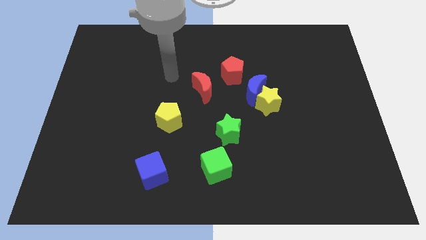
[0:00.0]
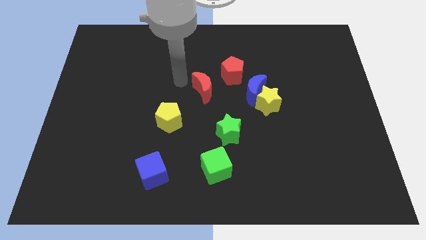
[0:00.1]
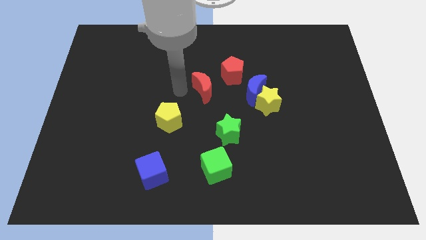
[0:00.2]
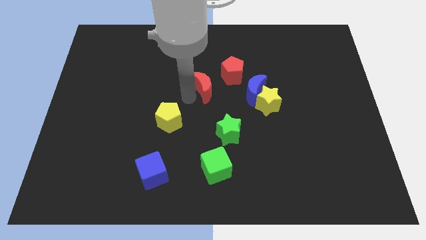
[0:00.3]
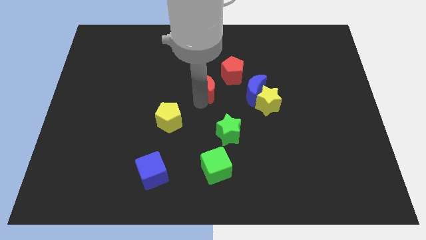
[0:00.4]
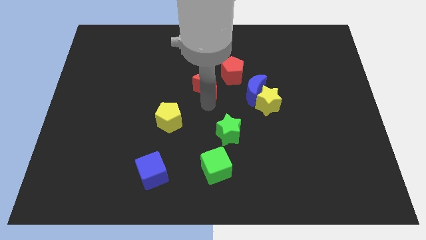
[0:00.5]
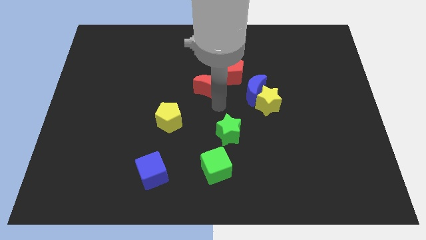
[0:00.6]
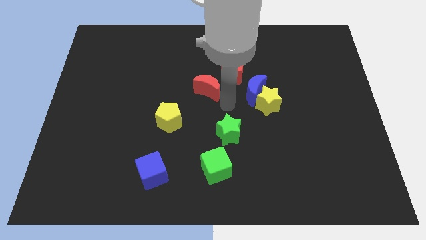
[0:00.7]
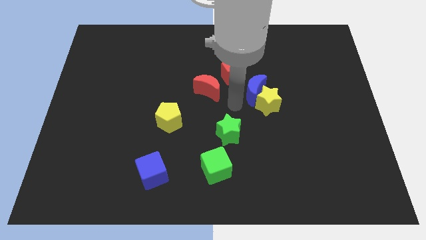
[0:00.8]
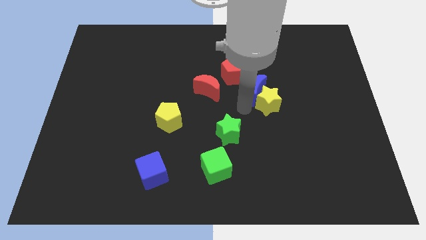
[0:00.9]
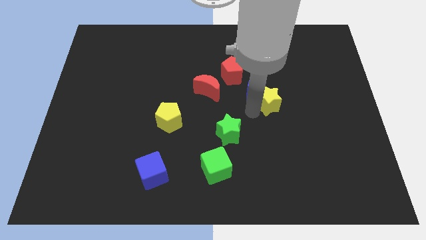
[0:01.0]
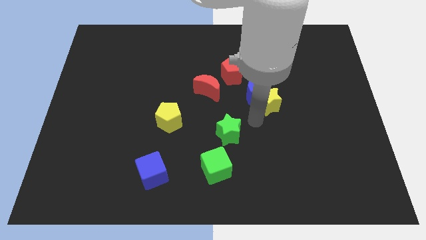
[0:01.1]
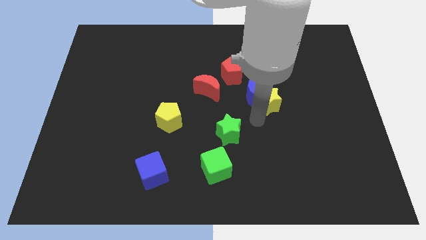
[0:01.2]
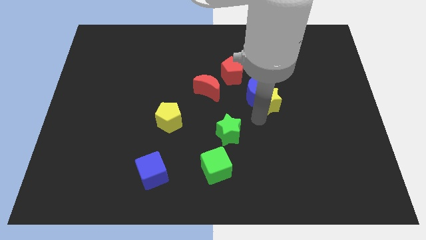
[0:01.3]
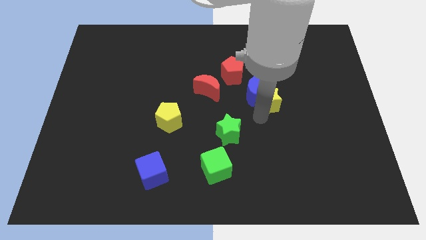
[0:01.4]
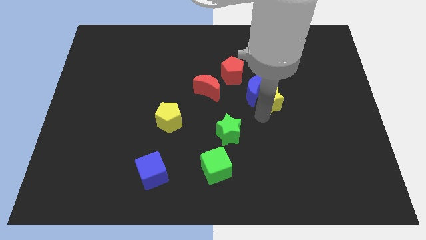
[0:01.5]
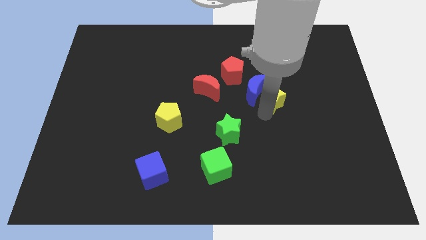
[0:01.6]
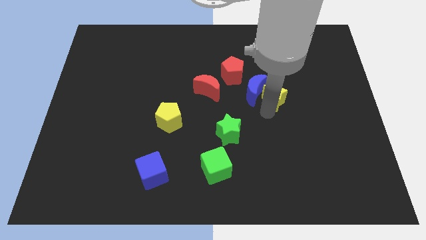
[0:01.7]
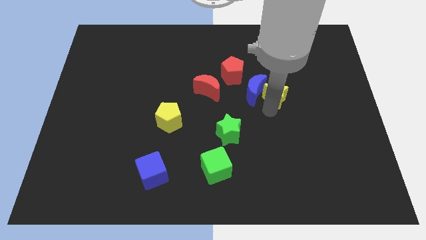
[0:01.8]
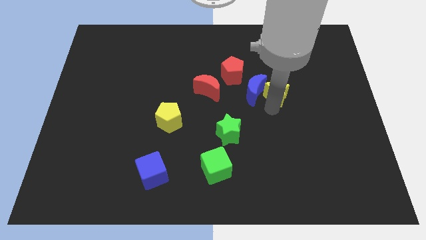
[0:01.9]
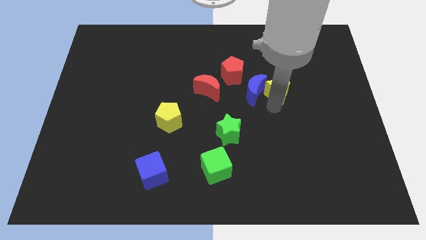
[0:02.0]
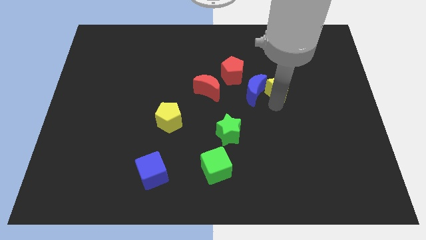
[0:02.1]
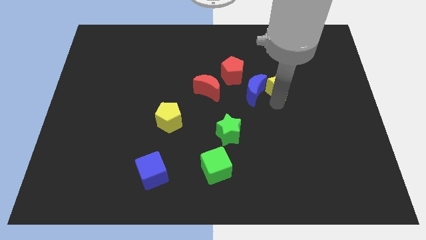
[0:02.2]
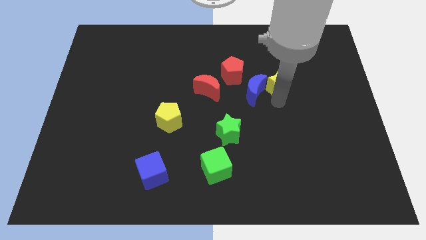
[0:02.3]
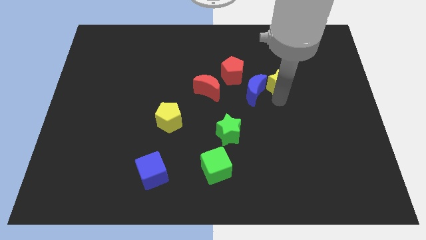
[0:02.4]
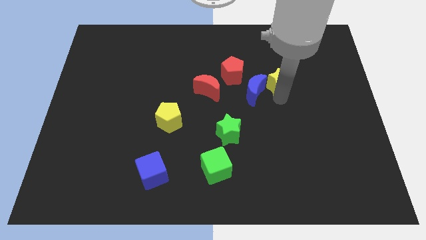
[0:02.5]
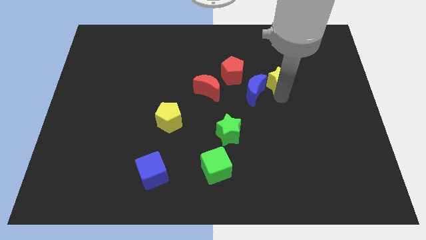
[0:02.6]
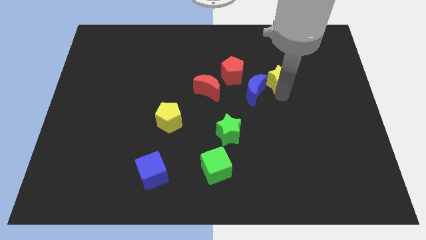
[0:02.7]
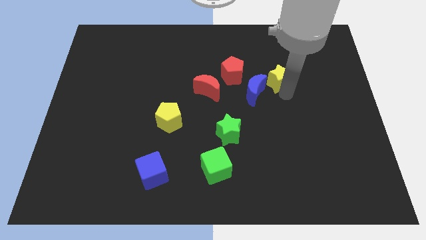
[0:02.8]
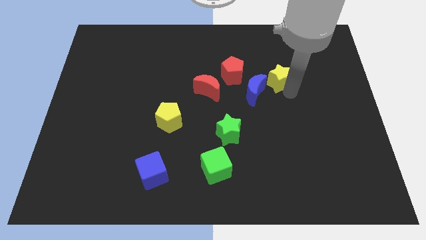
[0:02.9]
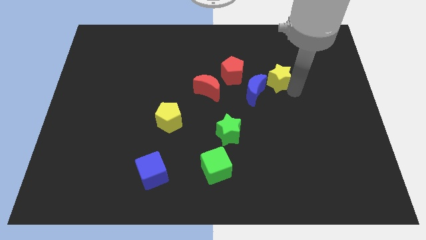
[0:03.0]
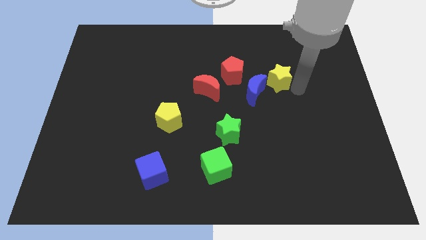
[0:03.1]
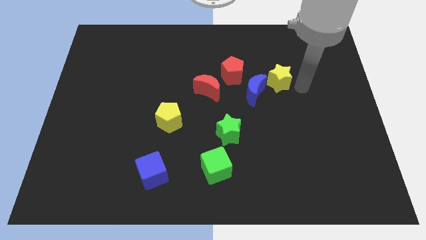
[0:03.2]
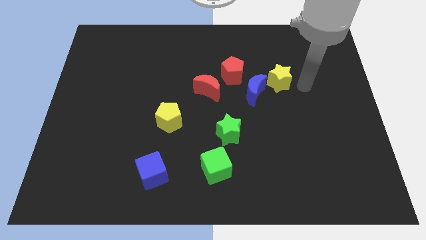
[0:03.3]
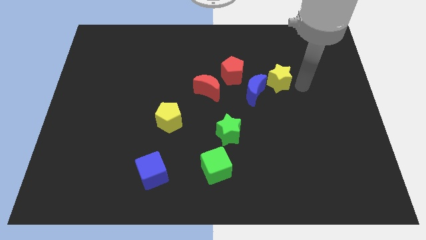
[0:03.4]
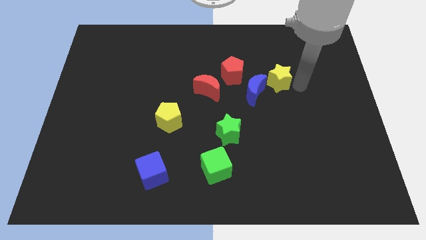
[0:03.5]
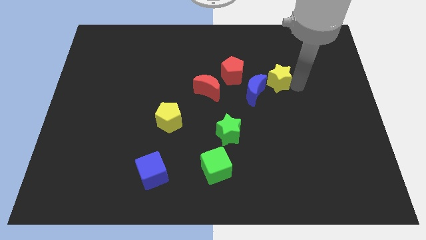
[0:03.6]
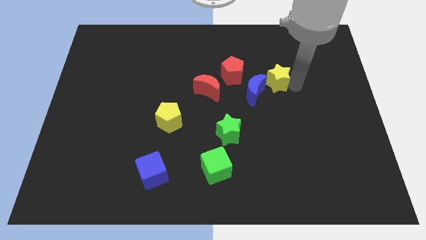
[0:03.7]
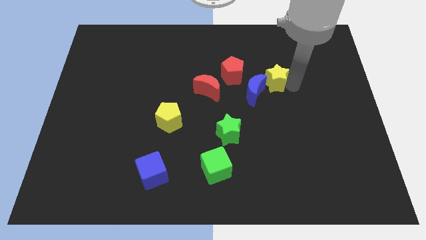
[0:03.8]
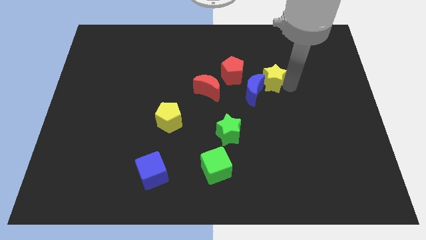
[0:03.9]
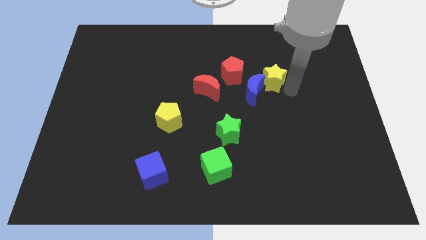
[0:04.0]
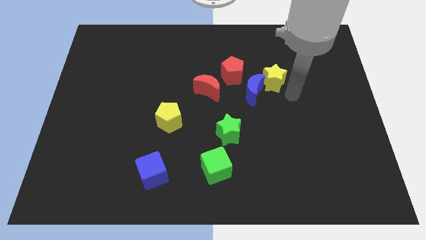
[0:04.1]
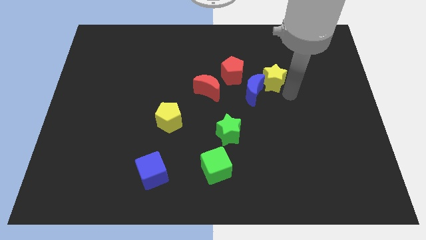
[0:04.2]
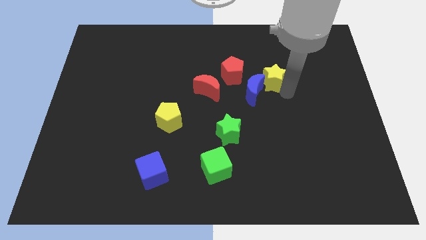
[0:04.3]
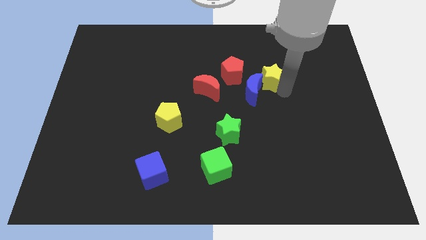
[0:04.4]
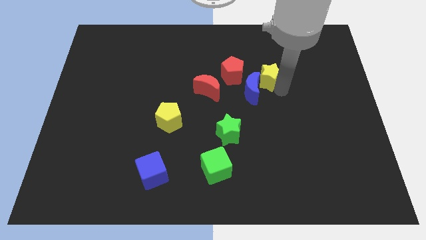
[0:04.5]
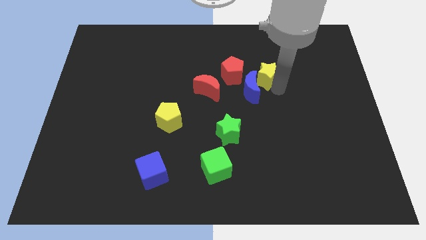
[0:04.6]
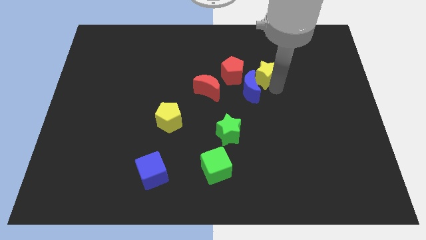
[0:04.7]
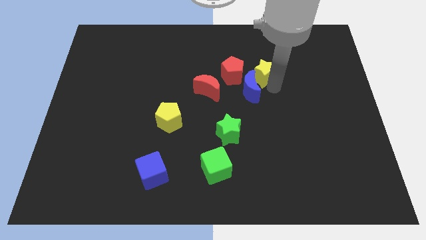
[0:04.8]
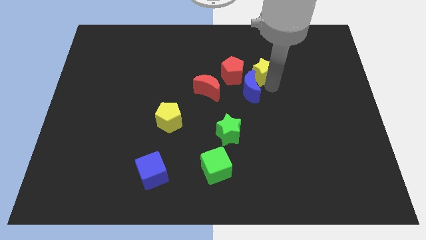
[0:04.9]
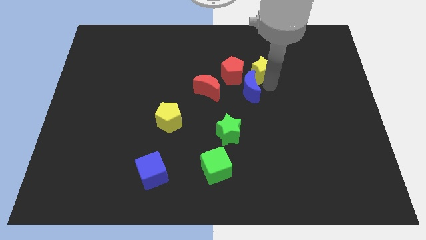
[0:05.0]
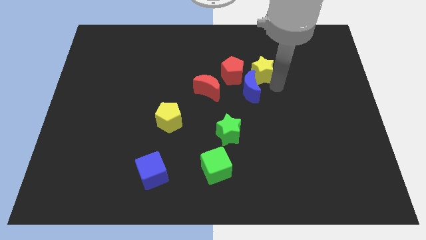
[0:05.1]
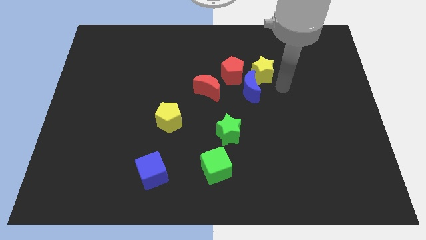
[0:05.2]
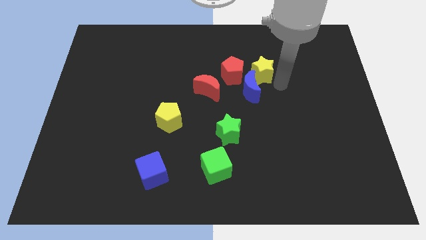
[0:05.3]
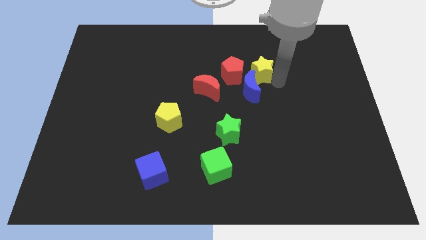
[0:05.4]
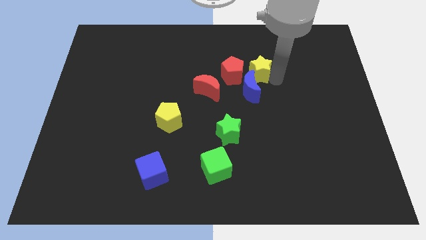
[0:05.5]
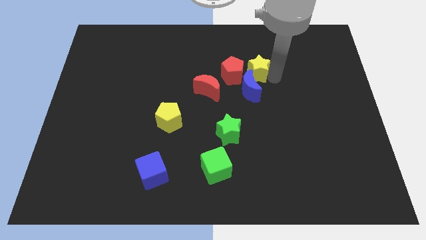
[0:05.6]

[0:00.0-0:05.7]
move the yellow star slightly upwards and left

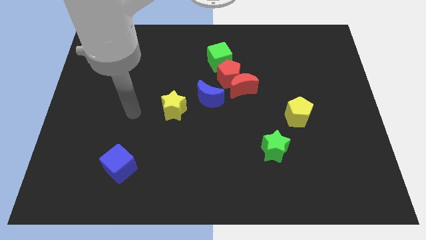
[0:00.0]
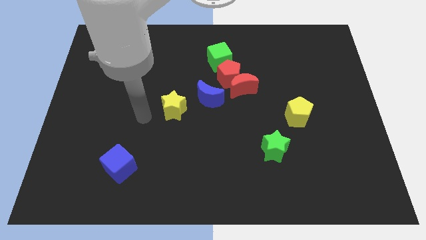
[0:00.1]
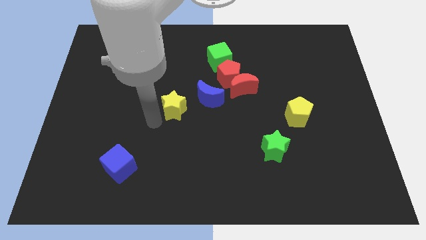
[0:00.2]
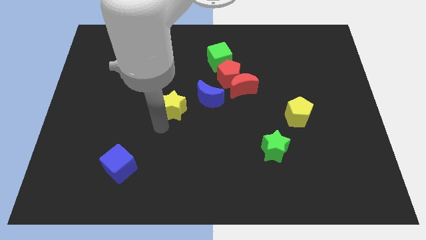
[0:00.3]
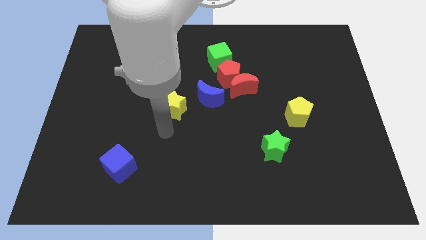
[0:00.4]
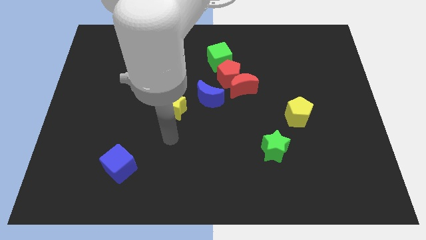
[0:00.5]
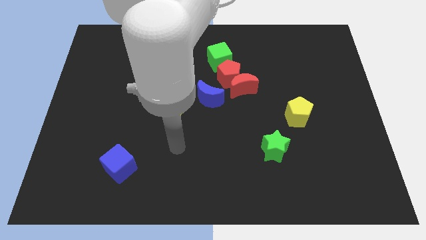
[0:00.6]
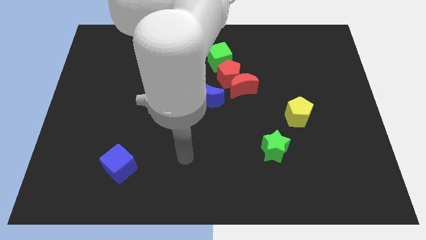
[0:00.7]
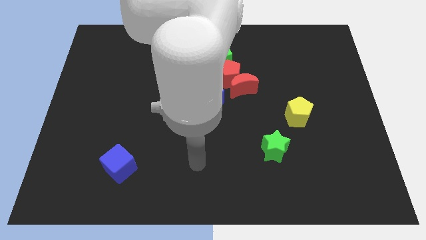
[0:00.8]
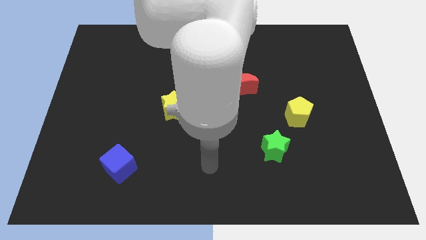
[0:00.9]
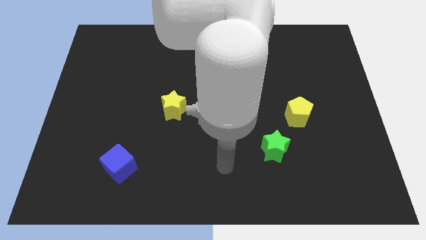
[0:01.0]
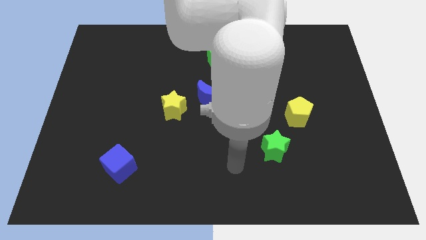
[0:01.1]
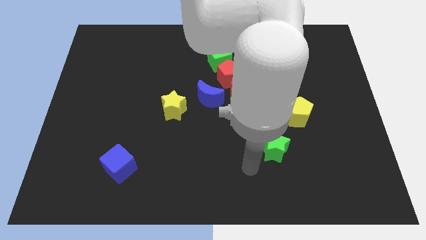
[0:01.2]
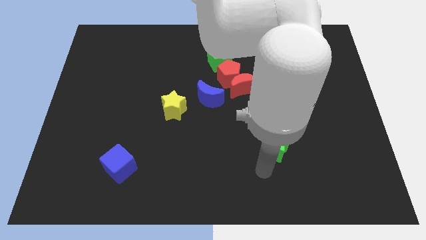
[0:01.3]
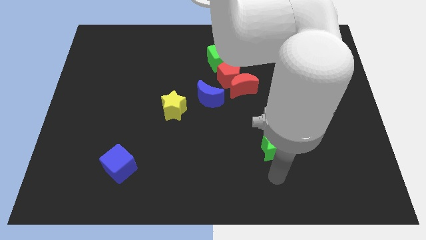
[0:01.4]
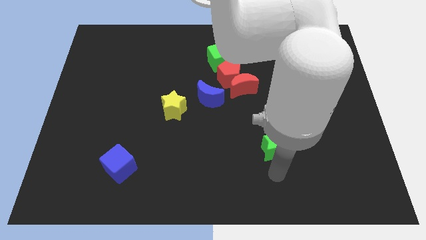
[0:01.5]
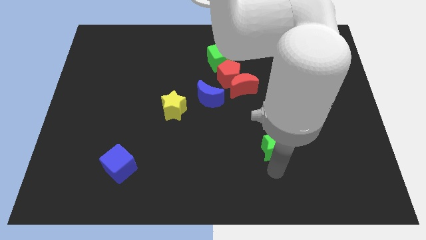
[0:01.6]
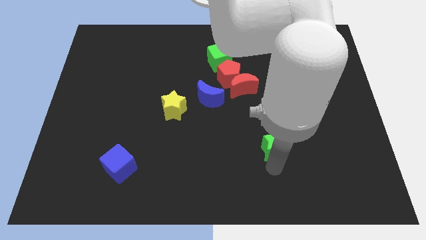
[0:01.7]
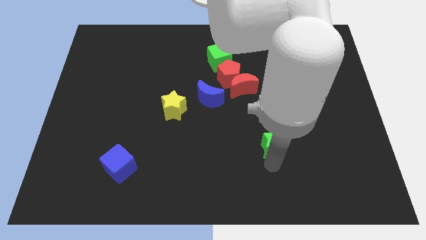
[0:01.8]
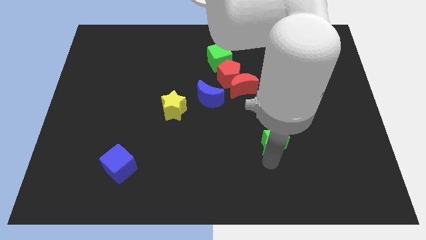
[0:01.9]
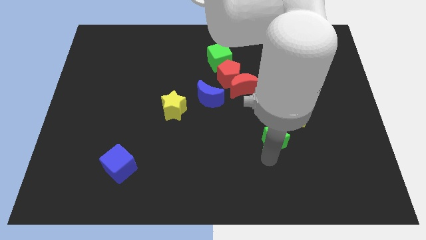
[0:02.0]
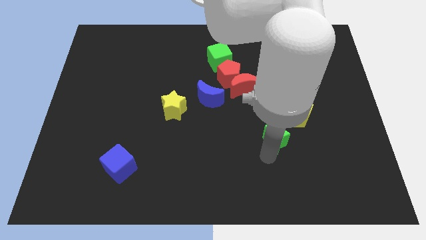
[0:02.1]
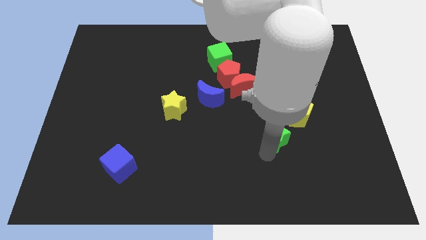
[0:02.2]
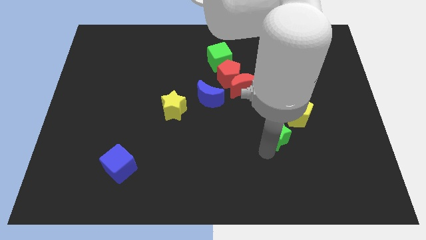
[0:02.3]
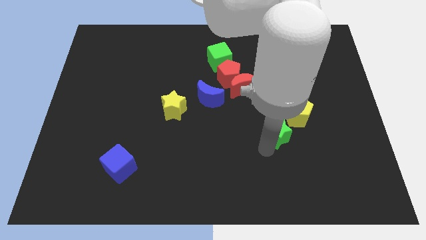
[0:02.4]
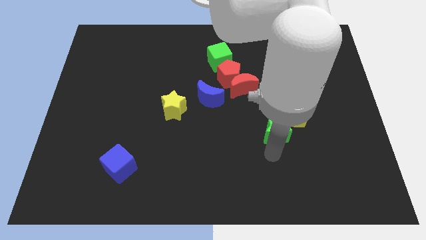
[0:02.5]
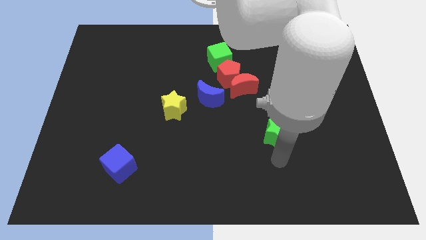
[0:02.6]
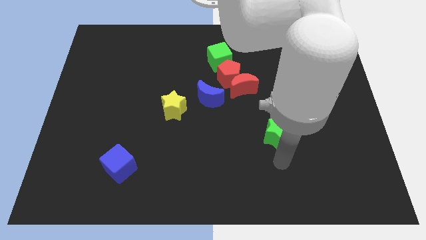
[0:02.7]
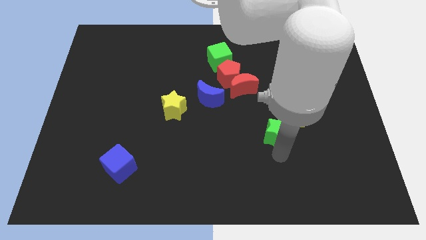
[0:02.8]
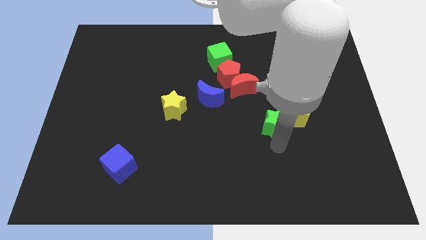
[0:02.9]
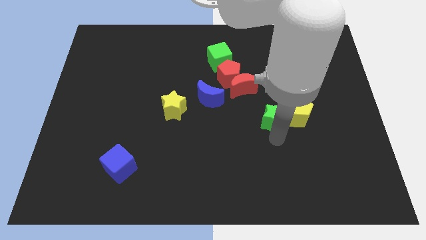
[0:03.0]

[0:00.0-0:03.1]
slightly move the green star up
